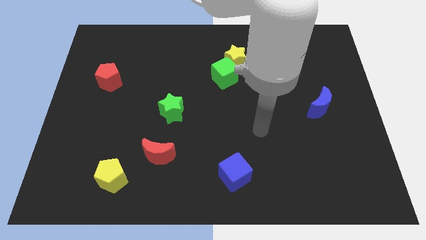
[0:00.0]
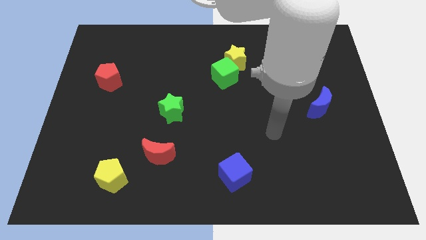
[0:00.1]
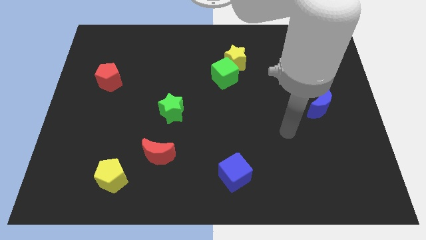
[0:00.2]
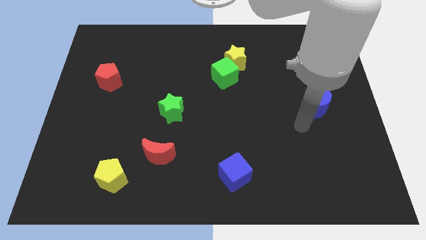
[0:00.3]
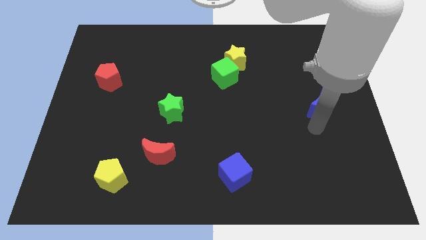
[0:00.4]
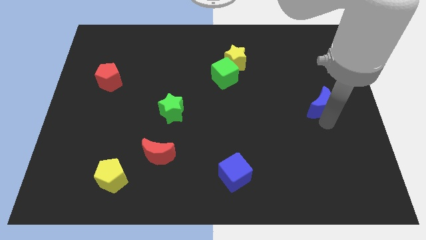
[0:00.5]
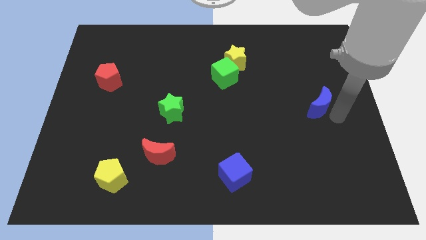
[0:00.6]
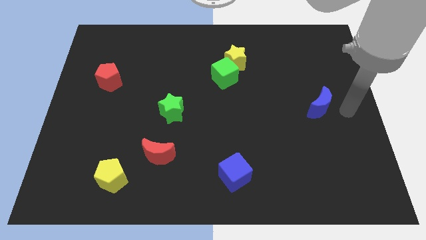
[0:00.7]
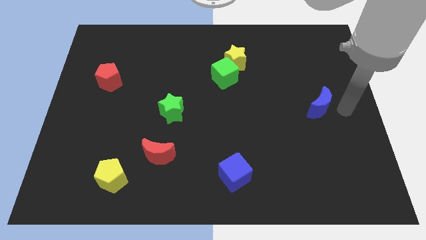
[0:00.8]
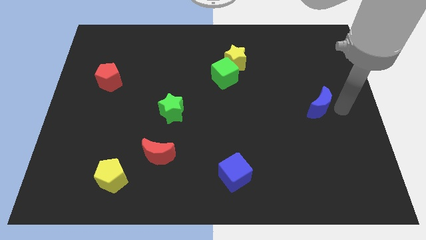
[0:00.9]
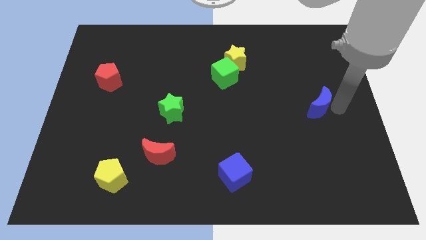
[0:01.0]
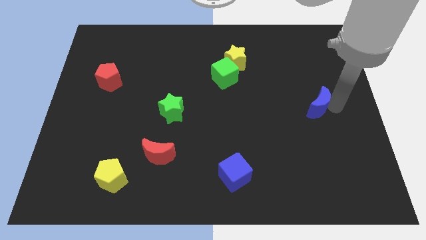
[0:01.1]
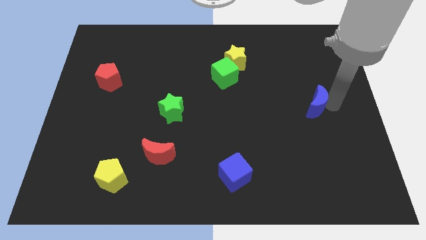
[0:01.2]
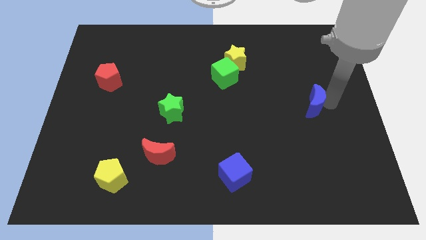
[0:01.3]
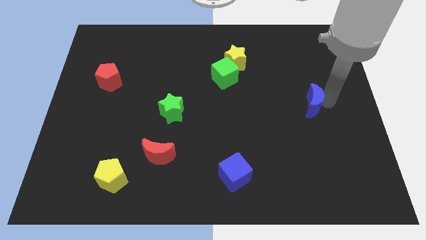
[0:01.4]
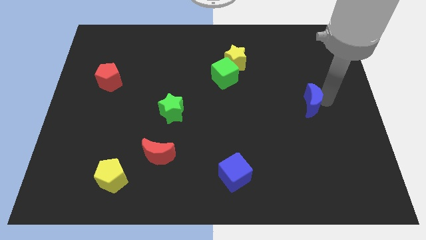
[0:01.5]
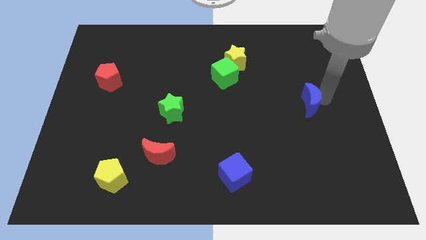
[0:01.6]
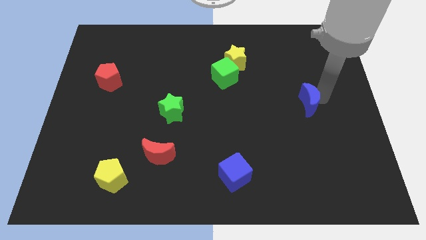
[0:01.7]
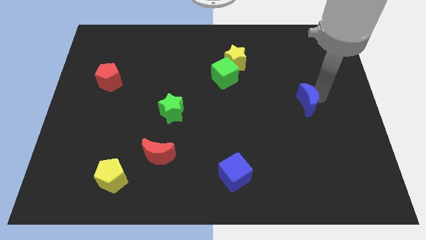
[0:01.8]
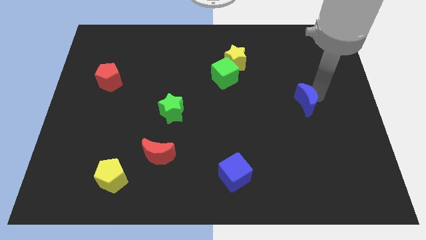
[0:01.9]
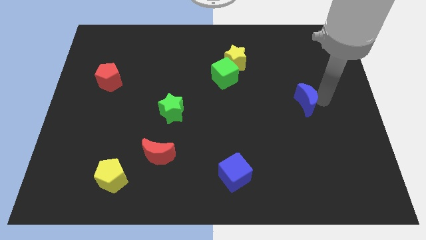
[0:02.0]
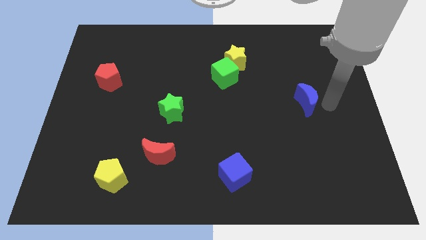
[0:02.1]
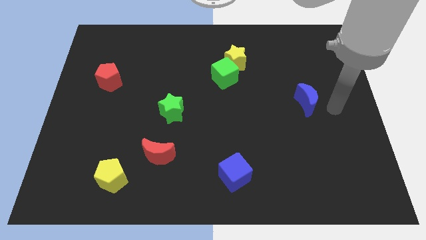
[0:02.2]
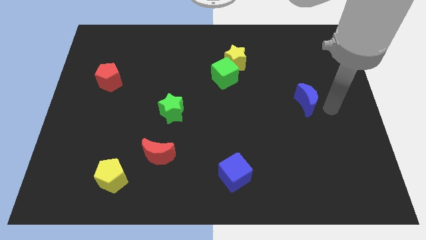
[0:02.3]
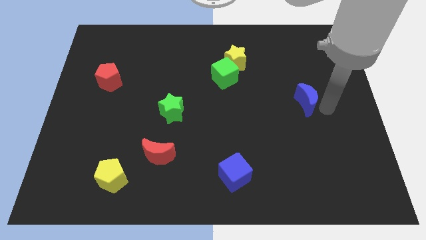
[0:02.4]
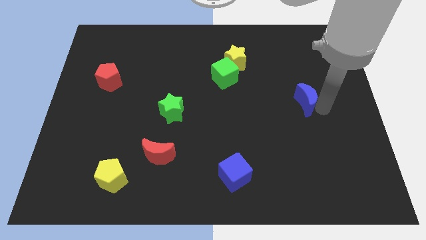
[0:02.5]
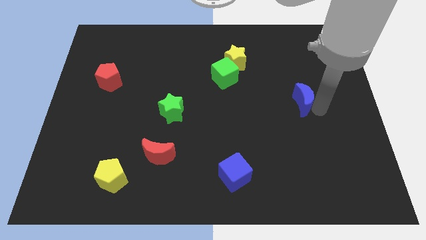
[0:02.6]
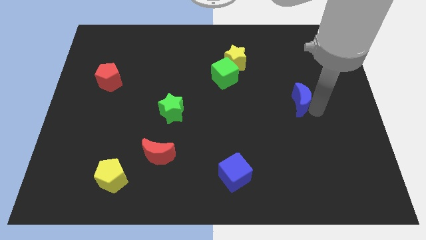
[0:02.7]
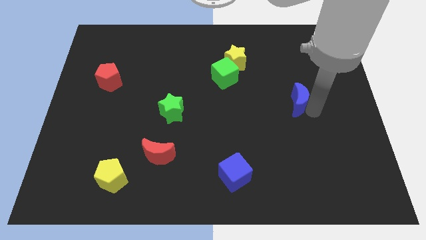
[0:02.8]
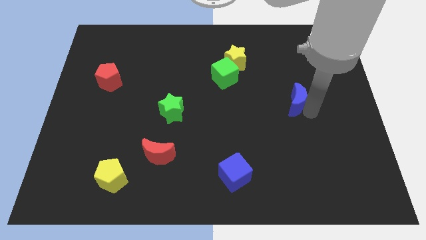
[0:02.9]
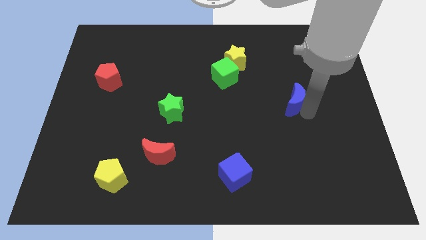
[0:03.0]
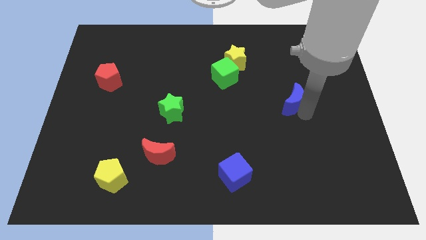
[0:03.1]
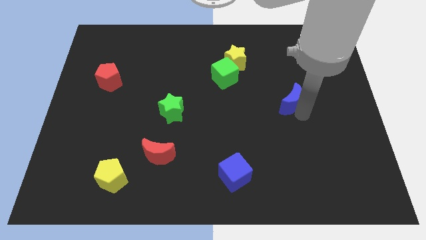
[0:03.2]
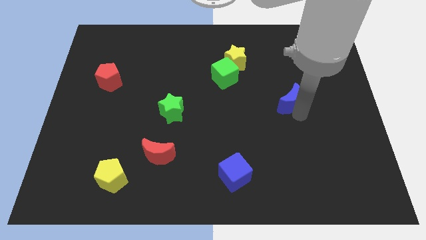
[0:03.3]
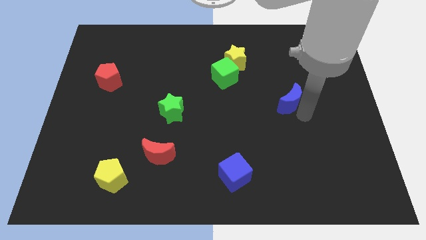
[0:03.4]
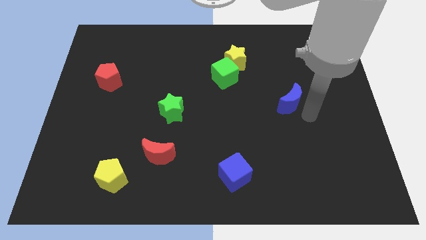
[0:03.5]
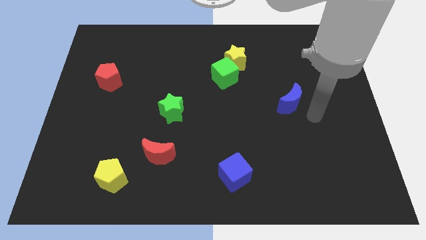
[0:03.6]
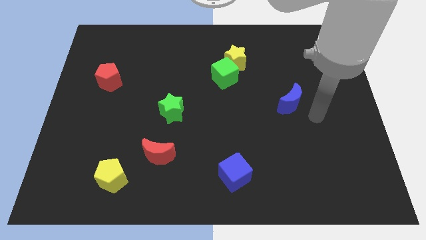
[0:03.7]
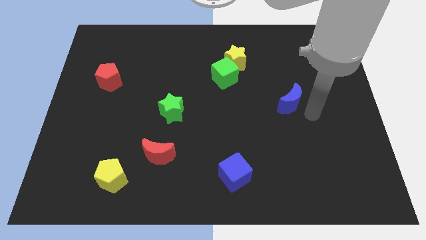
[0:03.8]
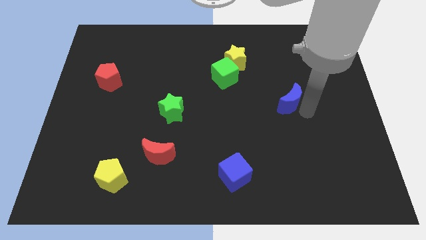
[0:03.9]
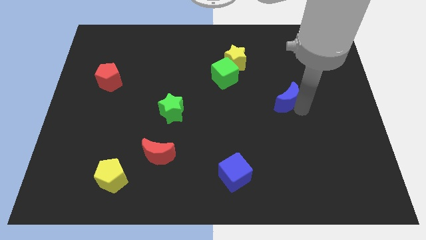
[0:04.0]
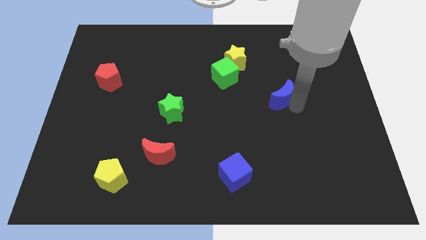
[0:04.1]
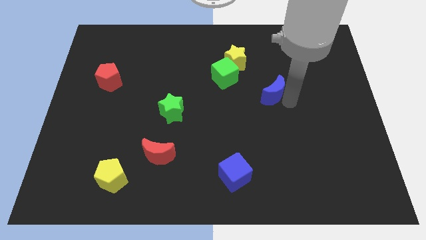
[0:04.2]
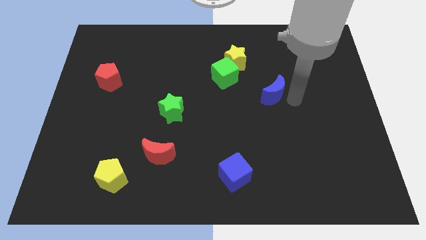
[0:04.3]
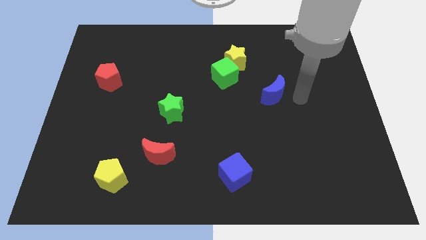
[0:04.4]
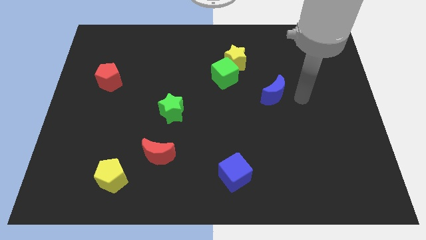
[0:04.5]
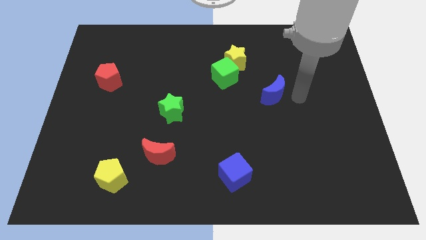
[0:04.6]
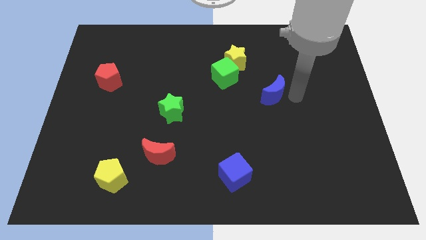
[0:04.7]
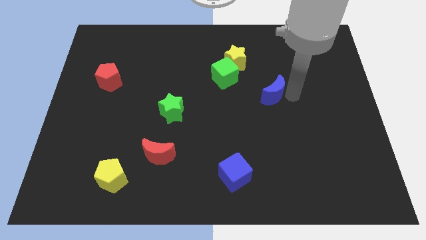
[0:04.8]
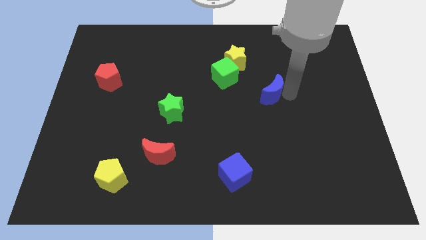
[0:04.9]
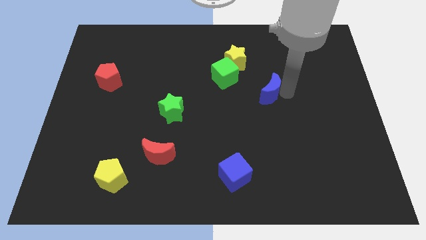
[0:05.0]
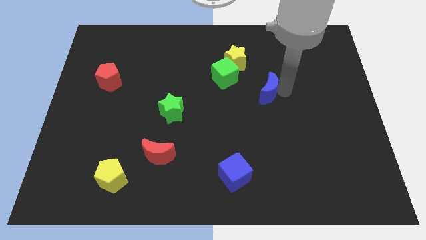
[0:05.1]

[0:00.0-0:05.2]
move the blue moon to the bottom right of the green cube
